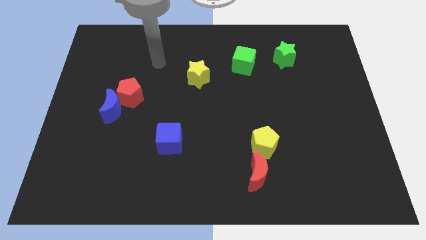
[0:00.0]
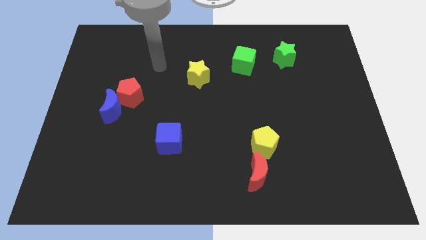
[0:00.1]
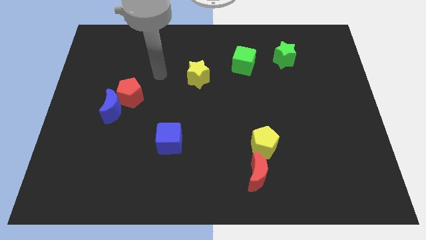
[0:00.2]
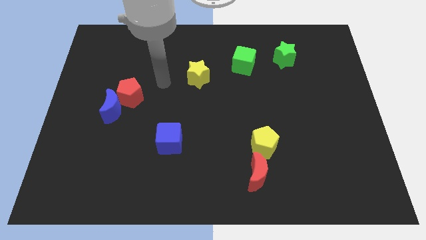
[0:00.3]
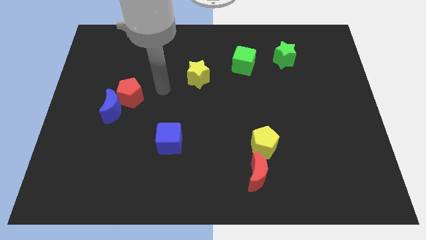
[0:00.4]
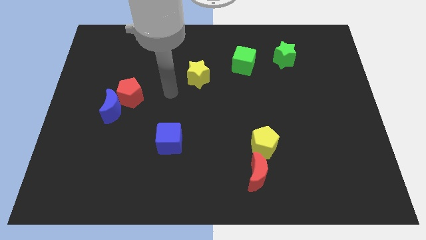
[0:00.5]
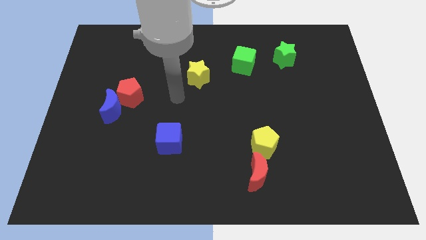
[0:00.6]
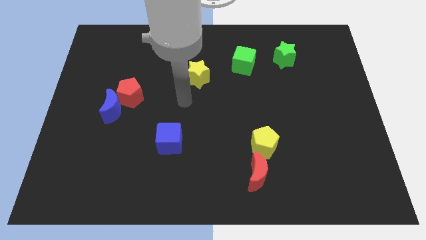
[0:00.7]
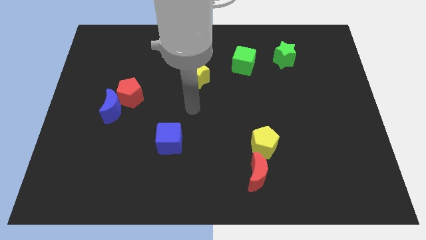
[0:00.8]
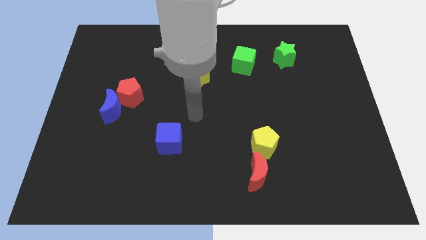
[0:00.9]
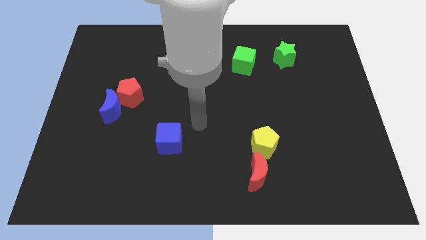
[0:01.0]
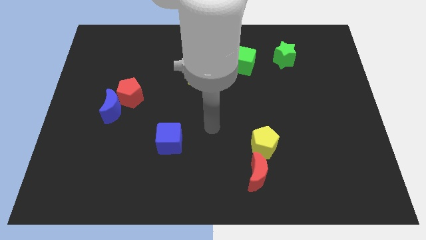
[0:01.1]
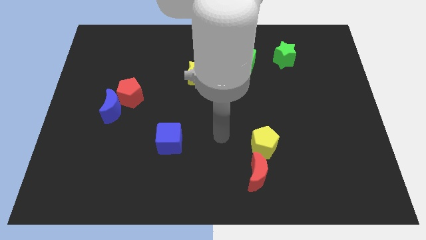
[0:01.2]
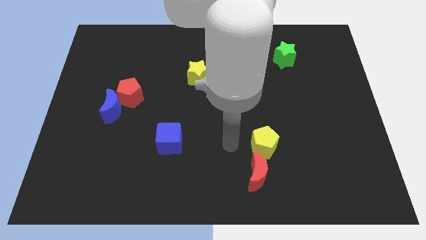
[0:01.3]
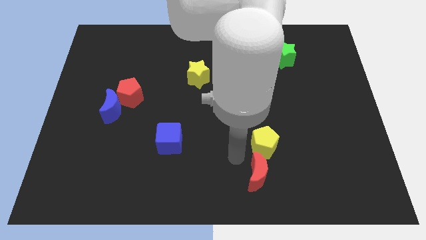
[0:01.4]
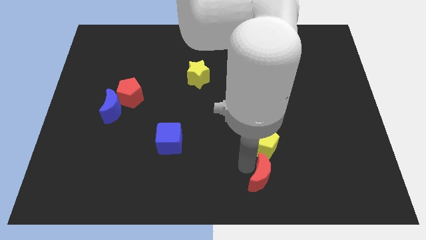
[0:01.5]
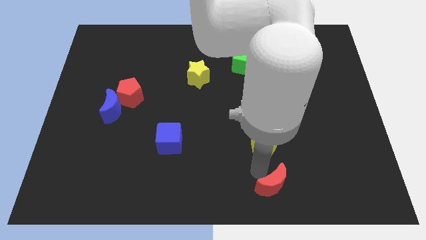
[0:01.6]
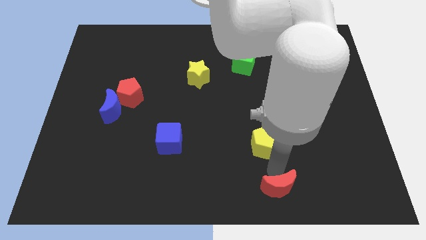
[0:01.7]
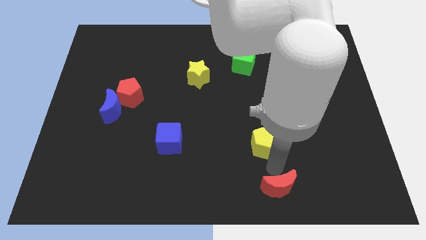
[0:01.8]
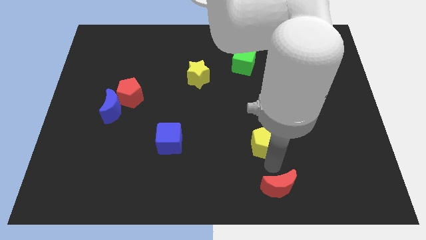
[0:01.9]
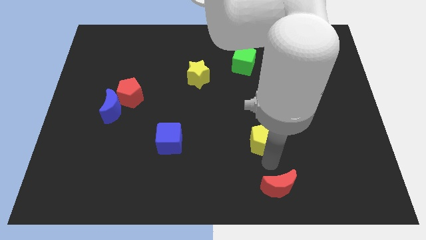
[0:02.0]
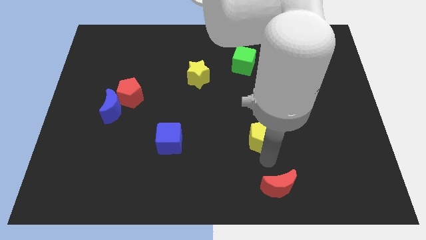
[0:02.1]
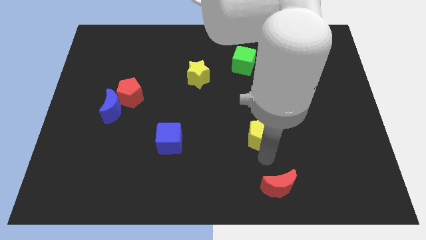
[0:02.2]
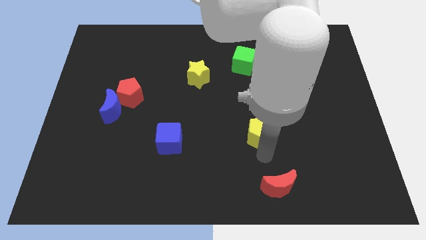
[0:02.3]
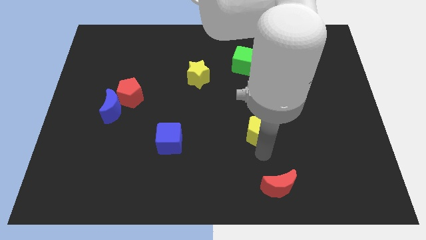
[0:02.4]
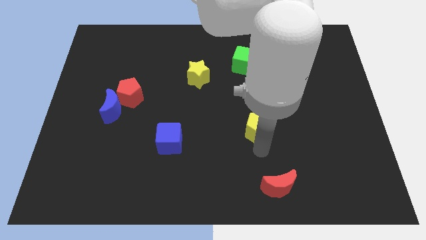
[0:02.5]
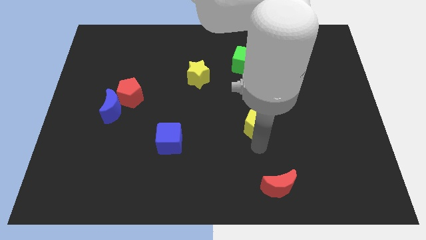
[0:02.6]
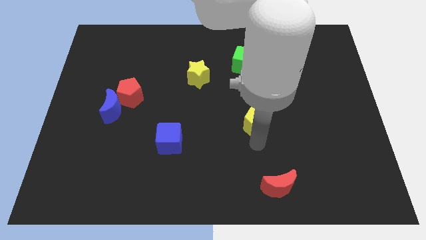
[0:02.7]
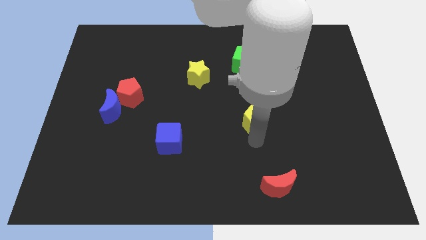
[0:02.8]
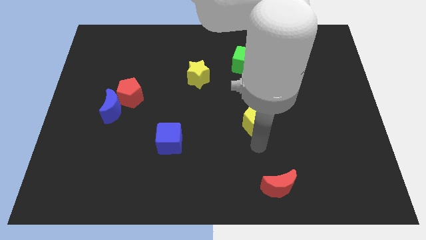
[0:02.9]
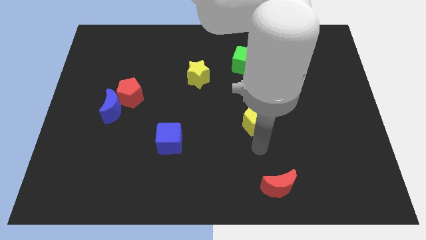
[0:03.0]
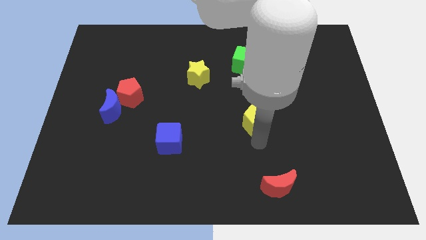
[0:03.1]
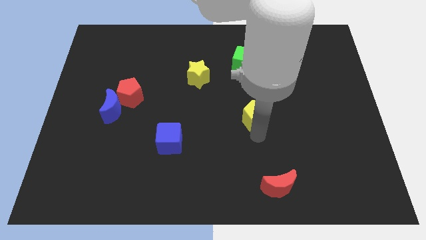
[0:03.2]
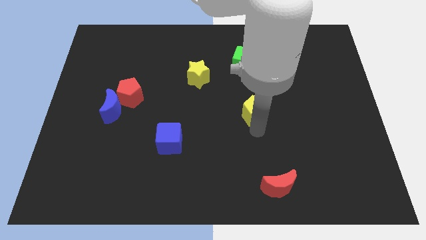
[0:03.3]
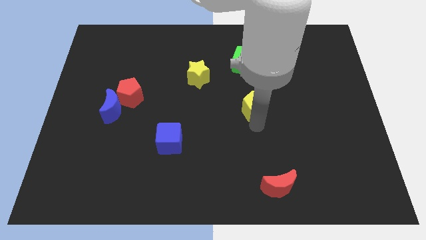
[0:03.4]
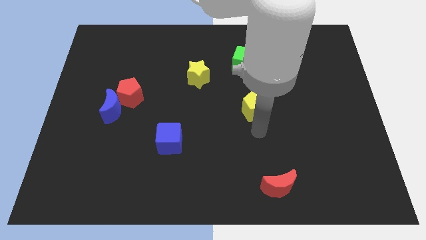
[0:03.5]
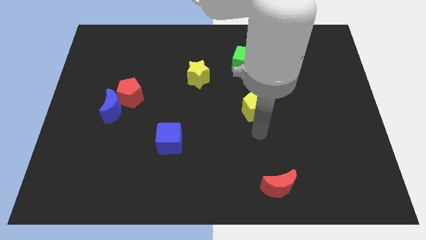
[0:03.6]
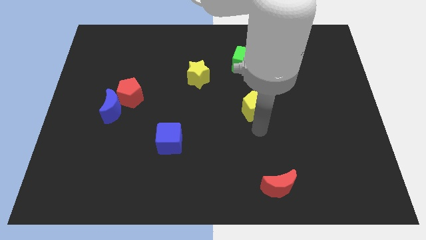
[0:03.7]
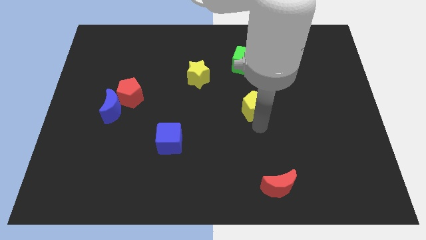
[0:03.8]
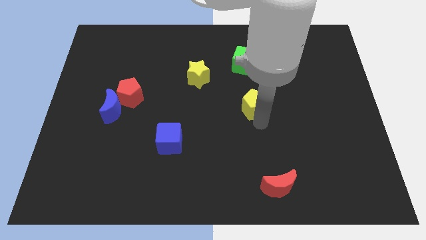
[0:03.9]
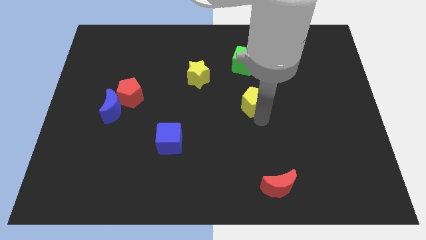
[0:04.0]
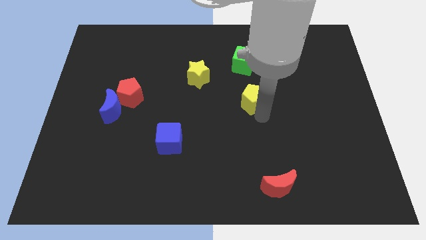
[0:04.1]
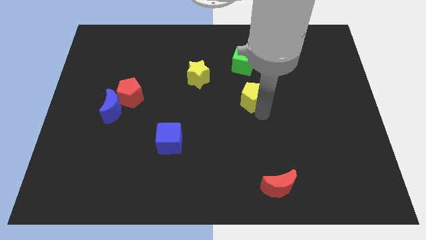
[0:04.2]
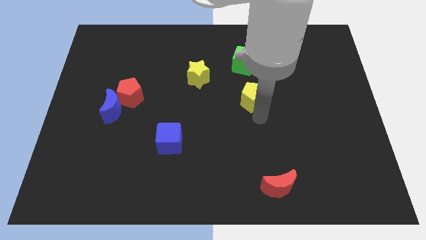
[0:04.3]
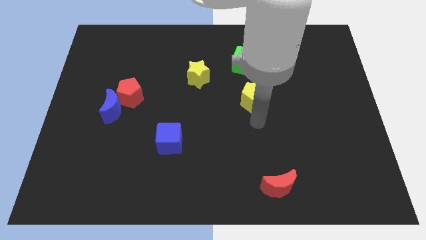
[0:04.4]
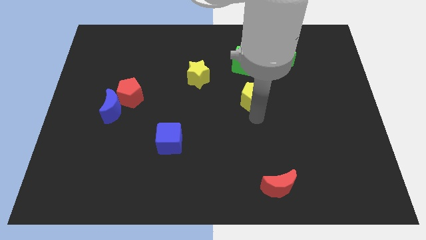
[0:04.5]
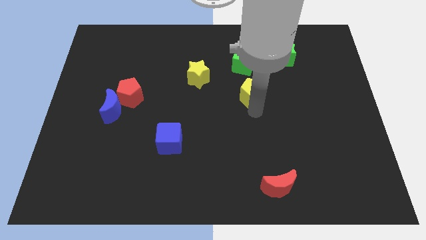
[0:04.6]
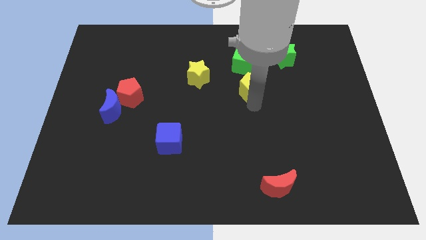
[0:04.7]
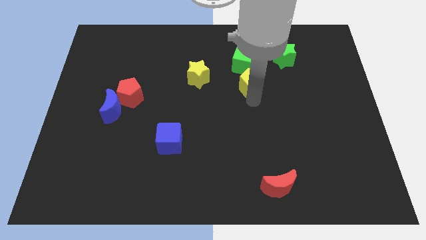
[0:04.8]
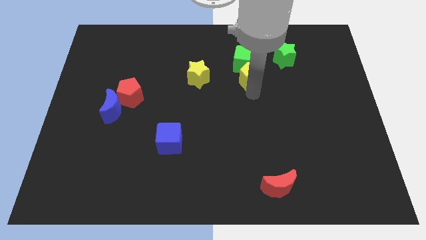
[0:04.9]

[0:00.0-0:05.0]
move the yellow pentagon to the green cube

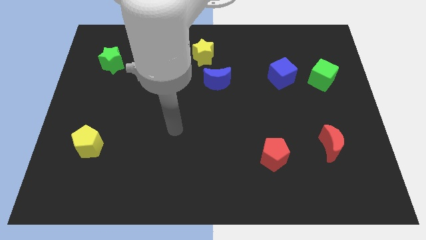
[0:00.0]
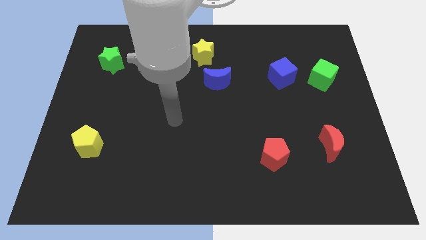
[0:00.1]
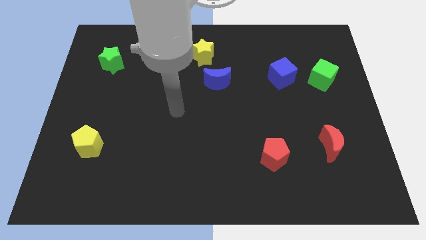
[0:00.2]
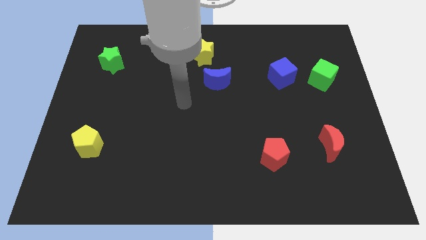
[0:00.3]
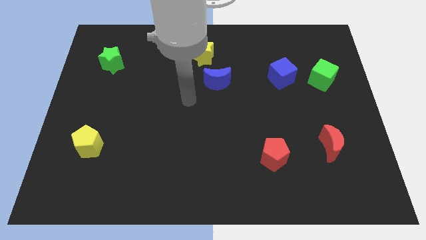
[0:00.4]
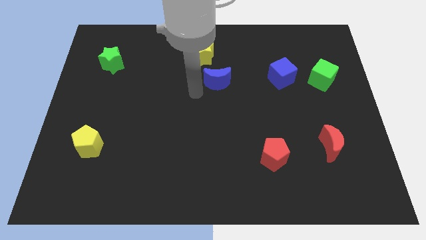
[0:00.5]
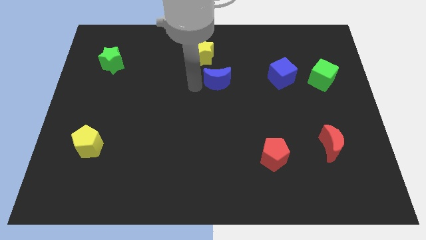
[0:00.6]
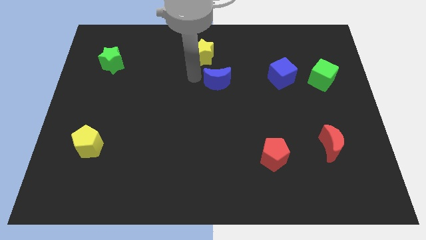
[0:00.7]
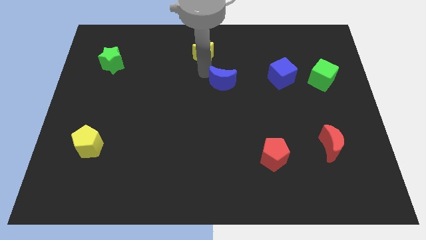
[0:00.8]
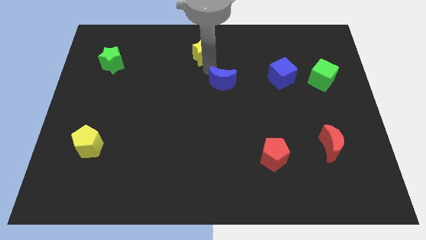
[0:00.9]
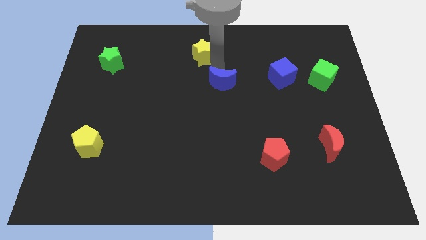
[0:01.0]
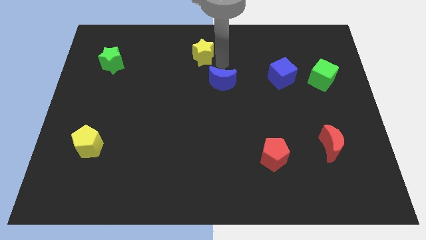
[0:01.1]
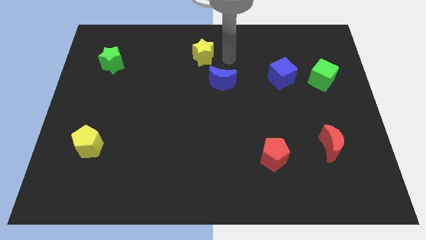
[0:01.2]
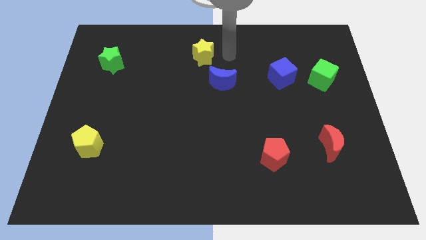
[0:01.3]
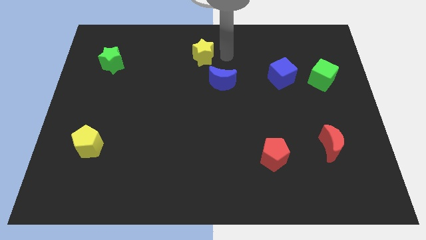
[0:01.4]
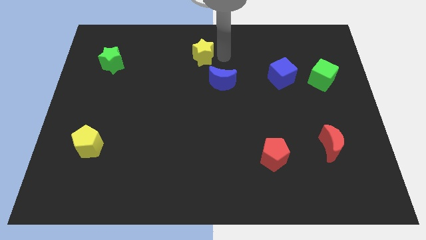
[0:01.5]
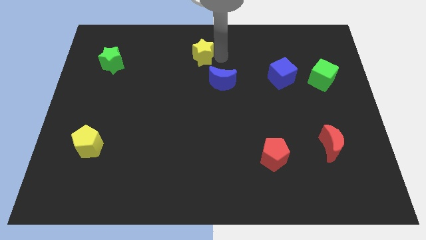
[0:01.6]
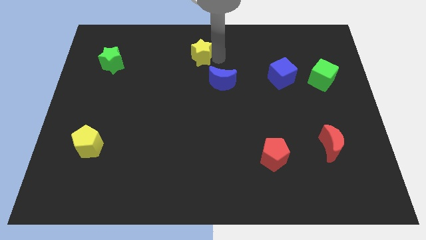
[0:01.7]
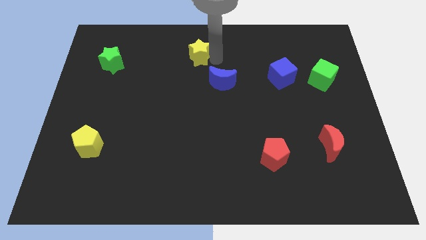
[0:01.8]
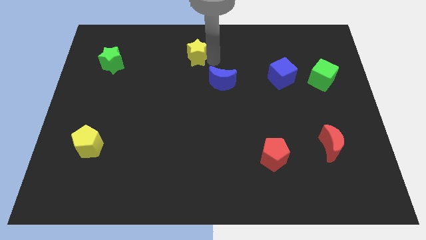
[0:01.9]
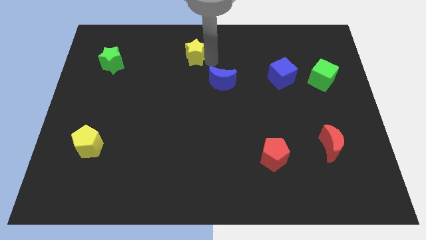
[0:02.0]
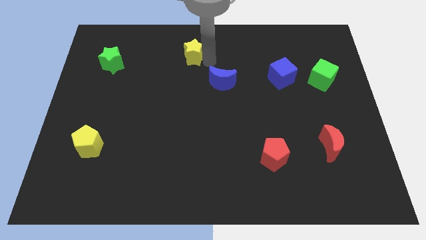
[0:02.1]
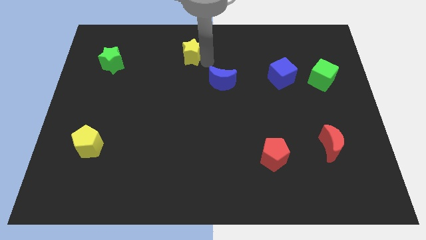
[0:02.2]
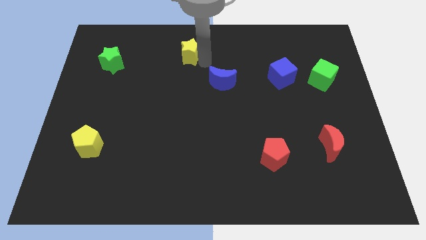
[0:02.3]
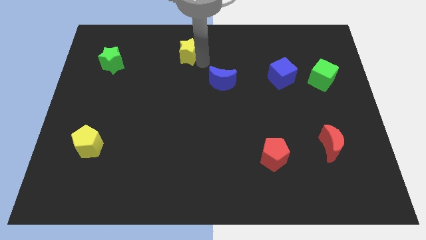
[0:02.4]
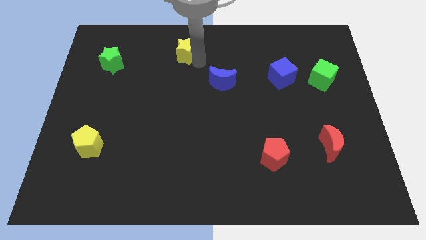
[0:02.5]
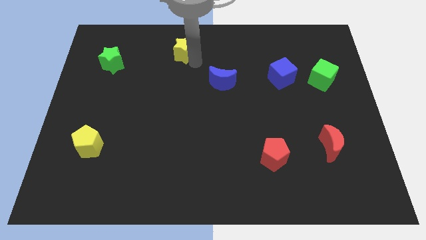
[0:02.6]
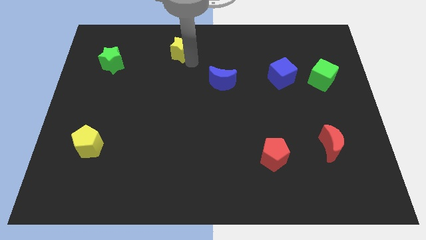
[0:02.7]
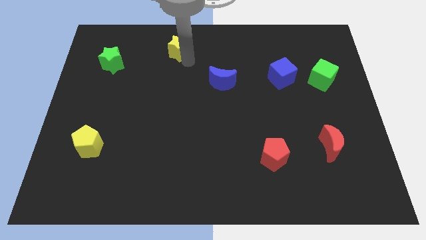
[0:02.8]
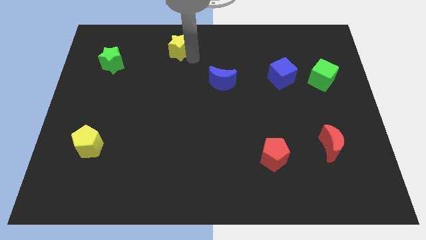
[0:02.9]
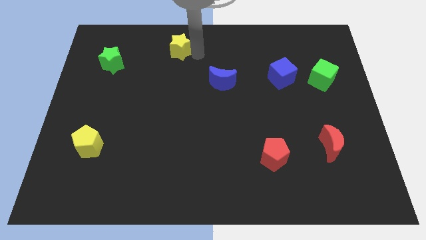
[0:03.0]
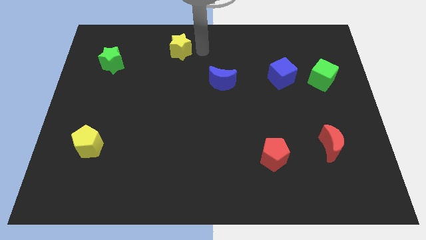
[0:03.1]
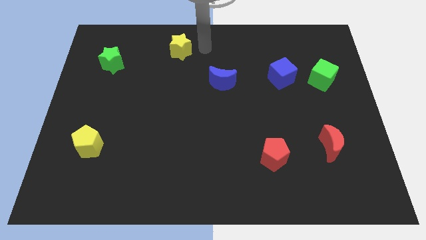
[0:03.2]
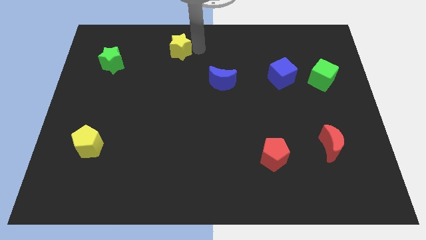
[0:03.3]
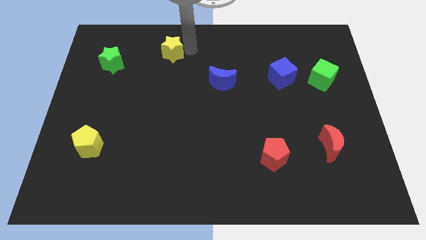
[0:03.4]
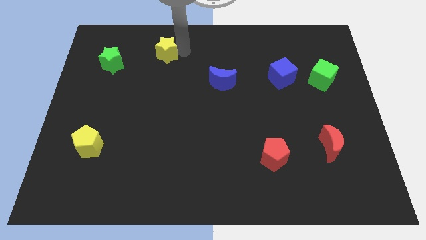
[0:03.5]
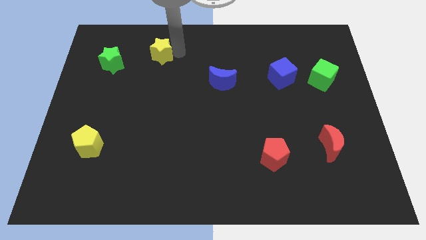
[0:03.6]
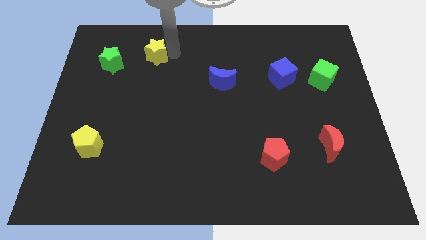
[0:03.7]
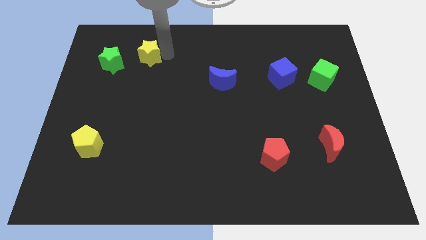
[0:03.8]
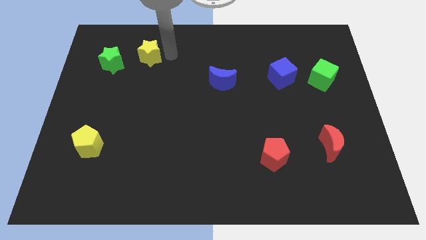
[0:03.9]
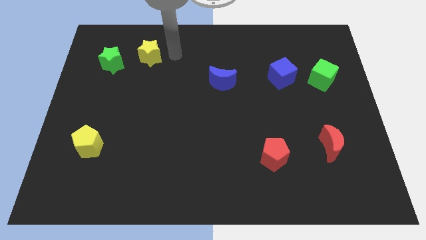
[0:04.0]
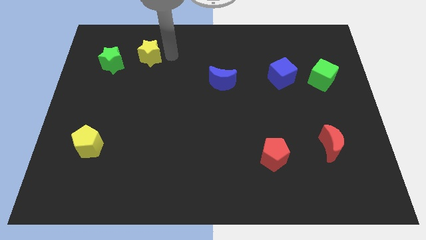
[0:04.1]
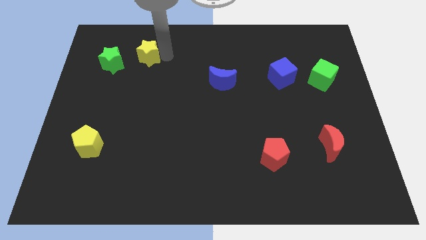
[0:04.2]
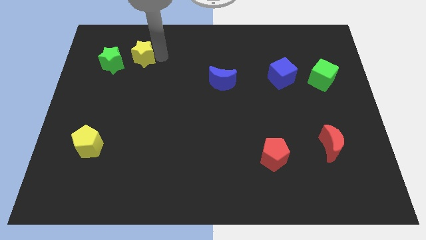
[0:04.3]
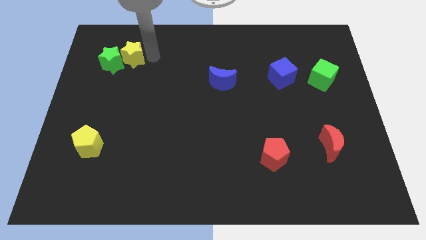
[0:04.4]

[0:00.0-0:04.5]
put the yellow star next to the green star
